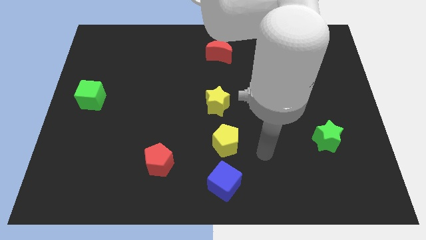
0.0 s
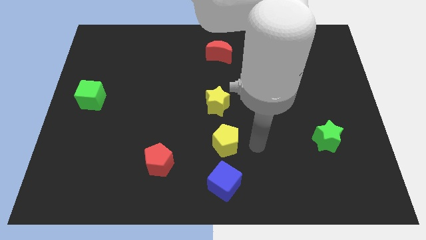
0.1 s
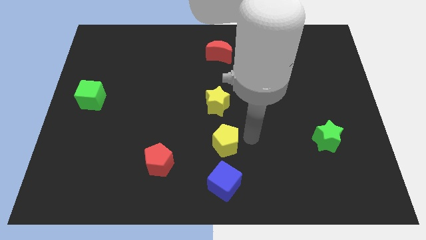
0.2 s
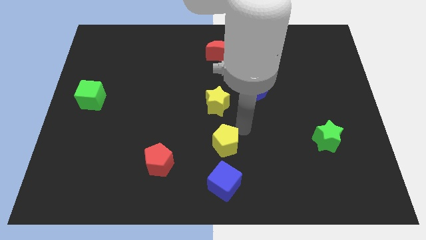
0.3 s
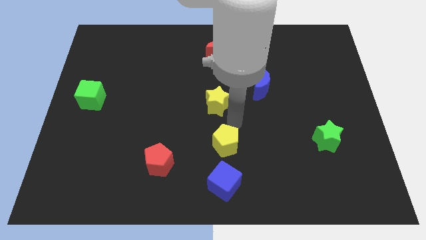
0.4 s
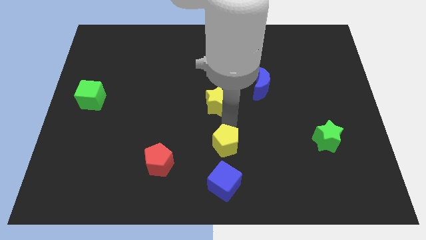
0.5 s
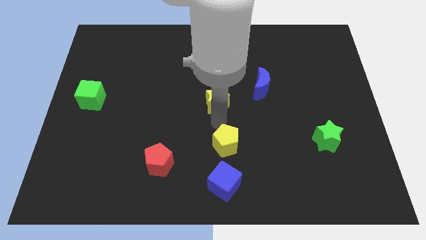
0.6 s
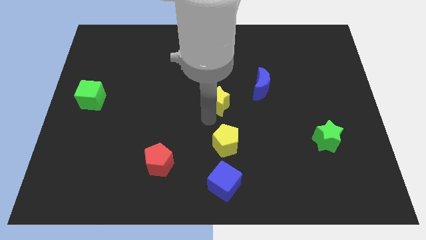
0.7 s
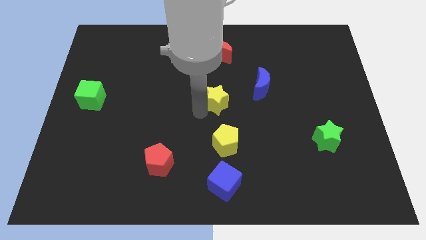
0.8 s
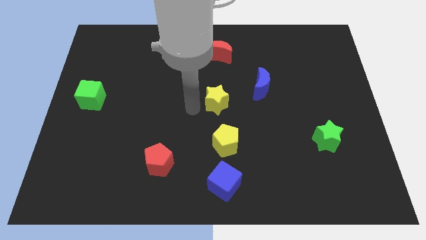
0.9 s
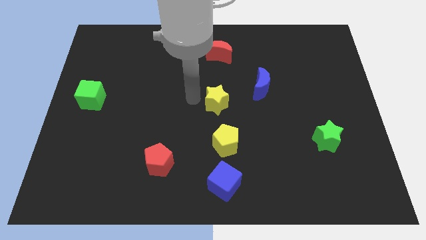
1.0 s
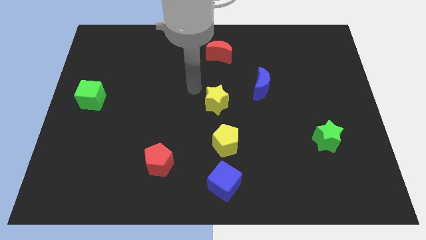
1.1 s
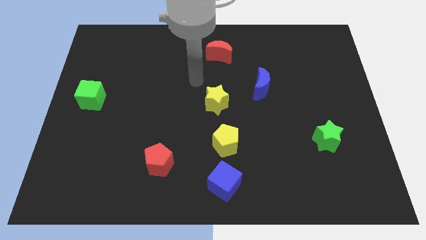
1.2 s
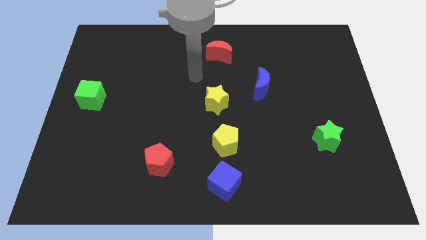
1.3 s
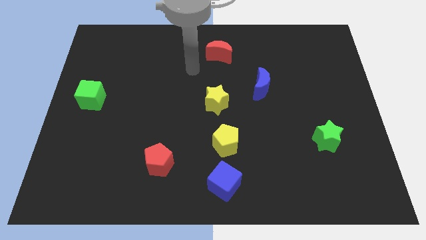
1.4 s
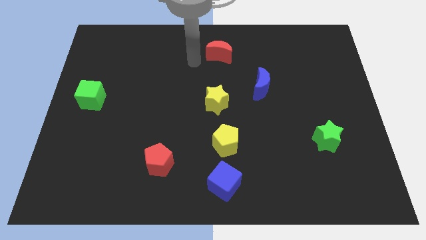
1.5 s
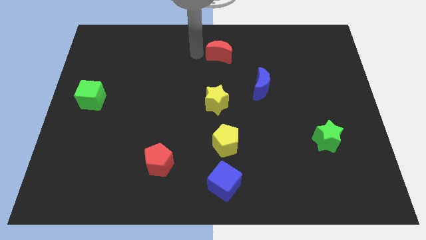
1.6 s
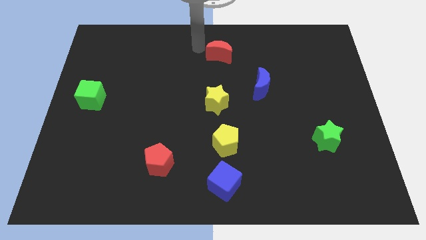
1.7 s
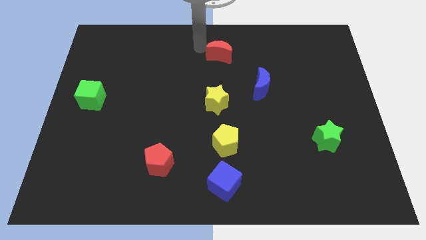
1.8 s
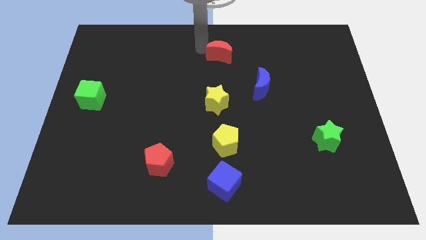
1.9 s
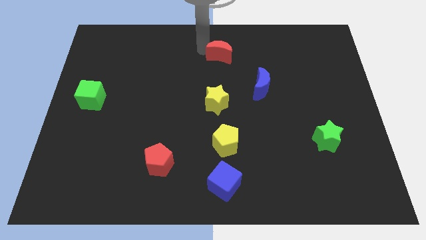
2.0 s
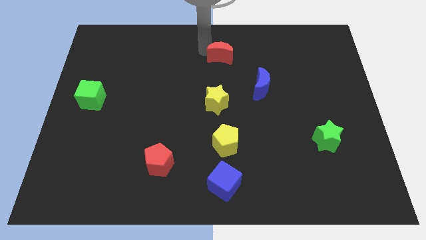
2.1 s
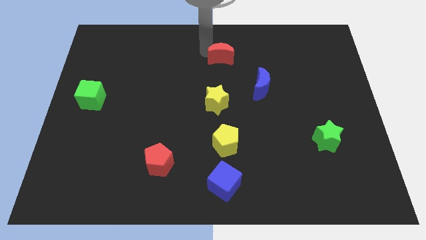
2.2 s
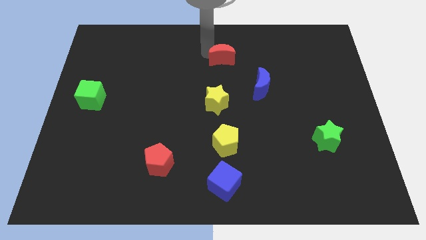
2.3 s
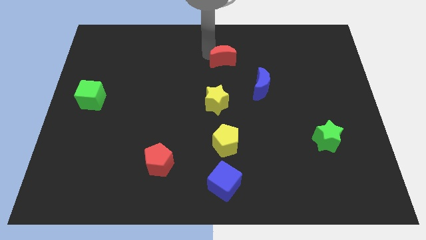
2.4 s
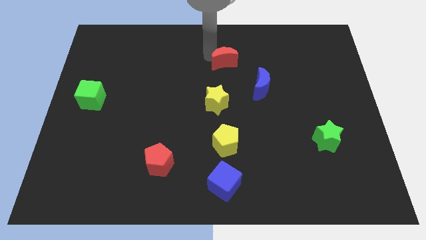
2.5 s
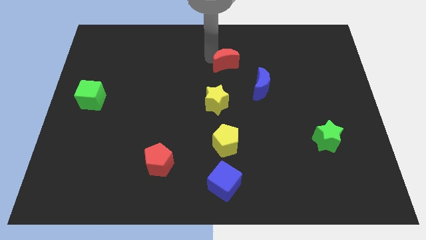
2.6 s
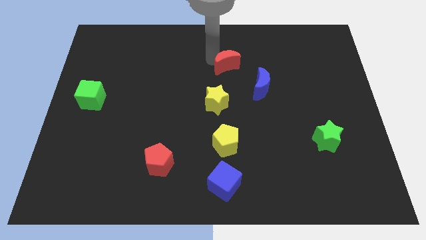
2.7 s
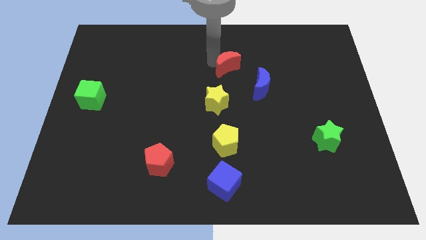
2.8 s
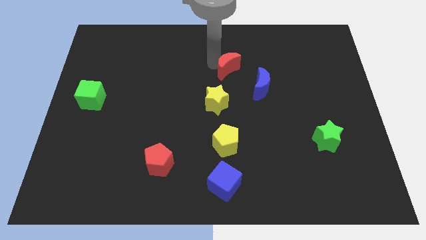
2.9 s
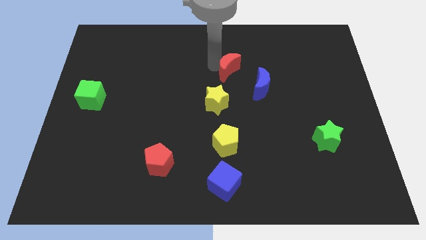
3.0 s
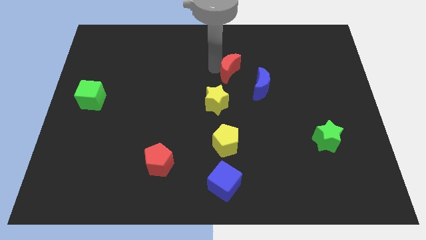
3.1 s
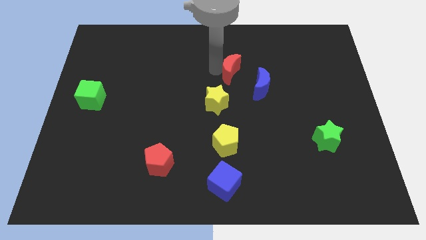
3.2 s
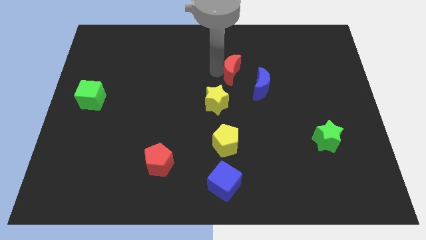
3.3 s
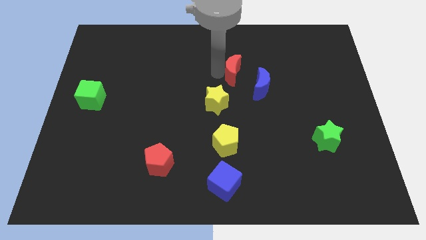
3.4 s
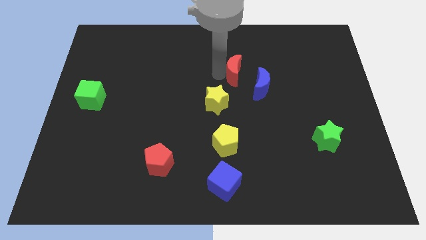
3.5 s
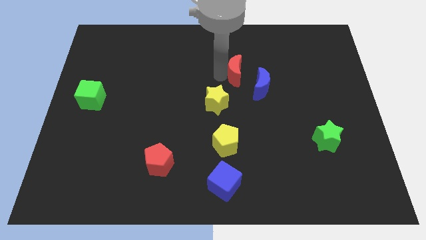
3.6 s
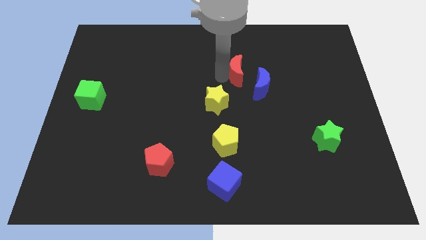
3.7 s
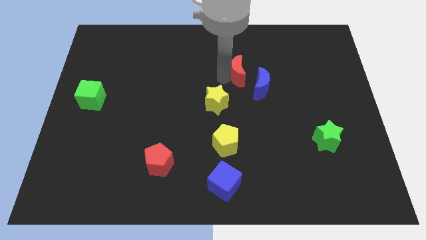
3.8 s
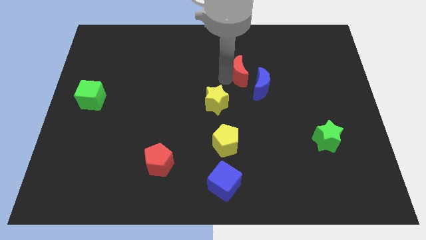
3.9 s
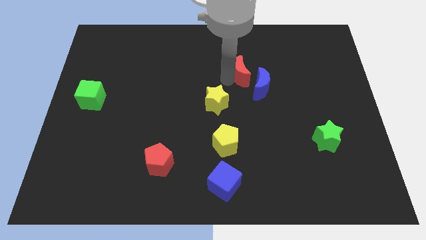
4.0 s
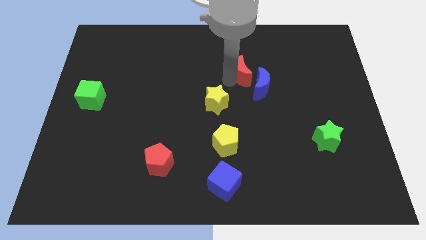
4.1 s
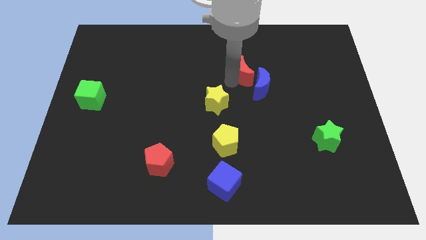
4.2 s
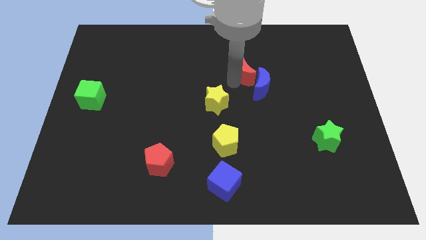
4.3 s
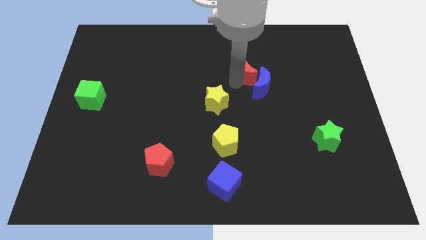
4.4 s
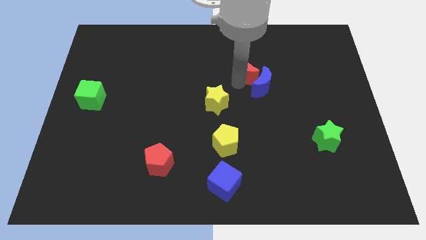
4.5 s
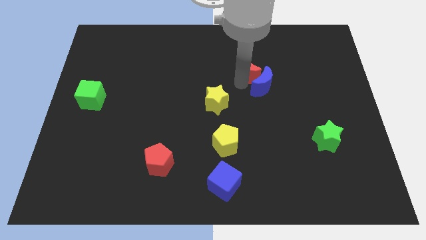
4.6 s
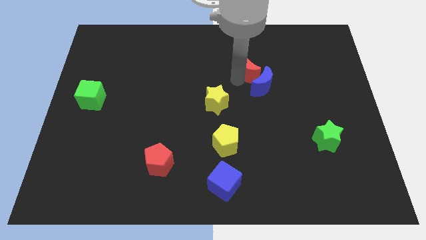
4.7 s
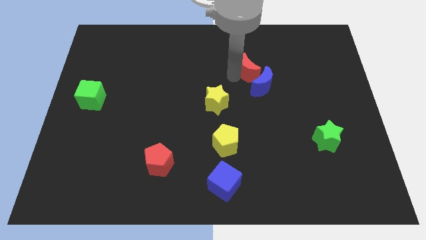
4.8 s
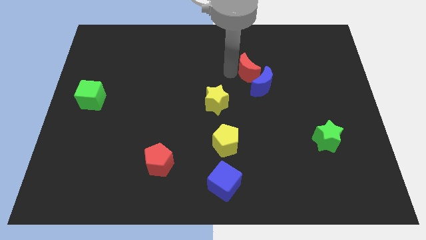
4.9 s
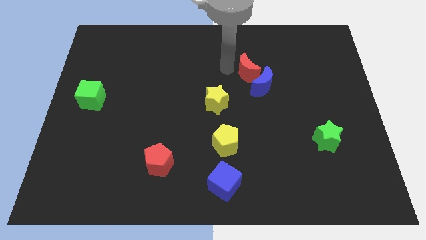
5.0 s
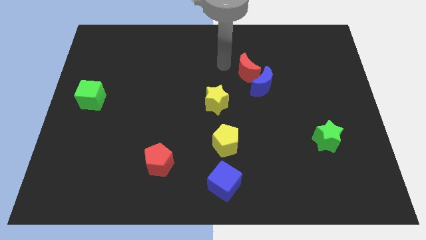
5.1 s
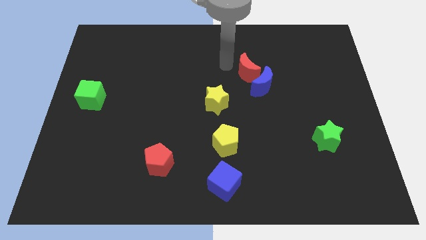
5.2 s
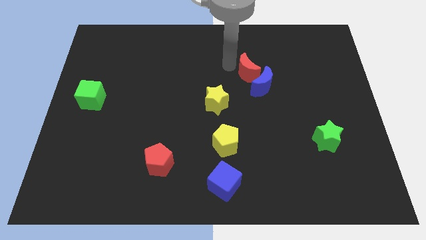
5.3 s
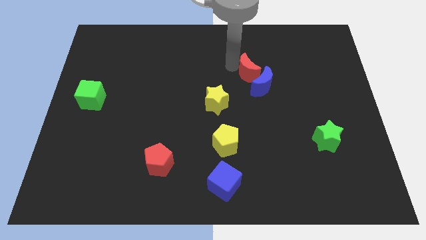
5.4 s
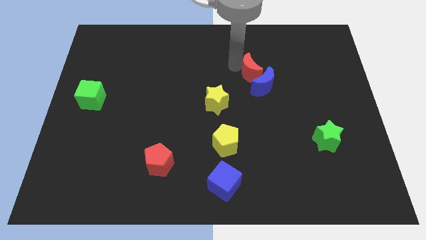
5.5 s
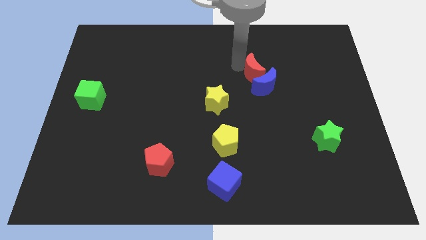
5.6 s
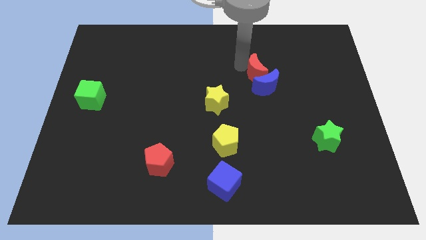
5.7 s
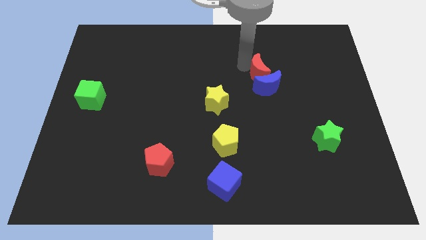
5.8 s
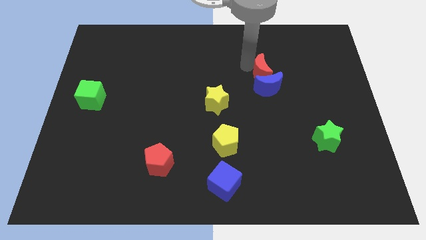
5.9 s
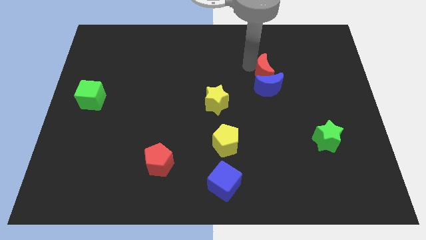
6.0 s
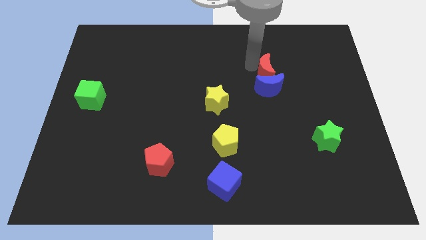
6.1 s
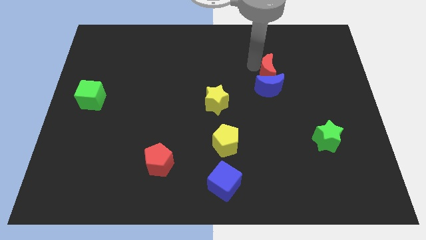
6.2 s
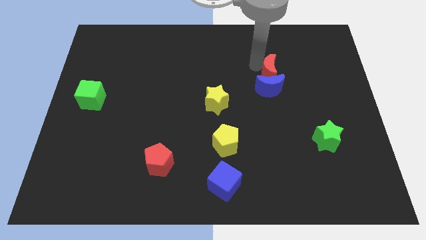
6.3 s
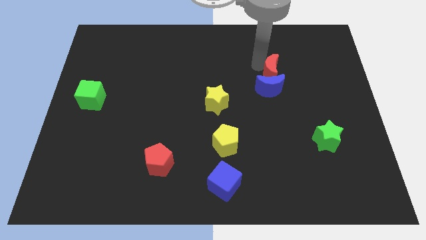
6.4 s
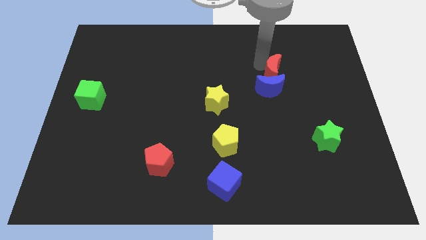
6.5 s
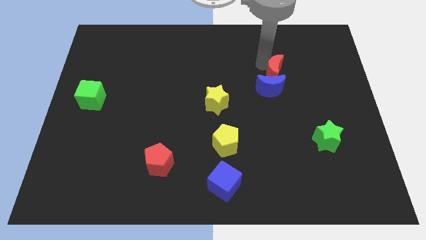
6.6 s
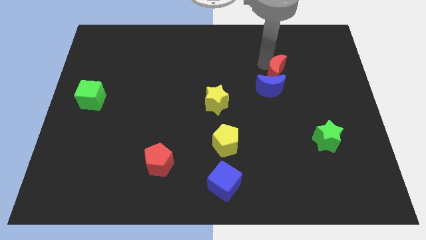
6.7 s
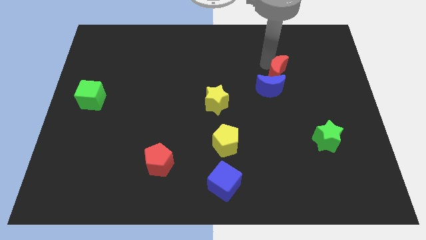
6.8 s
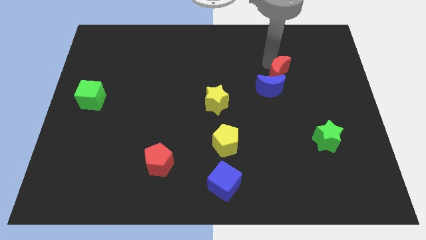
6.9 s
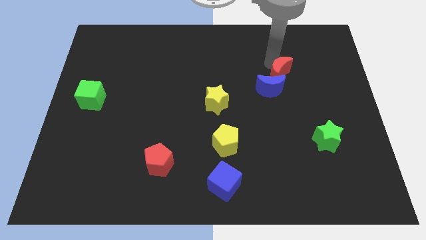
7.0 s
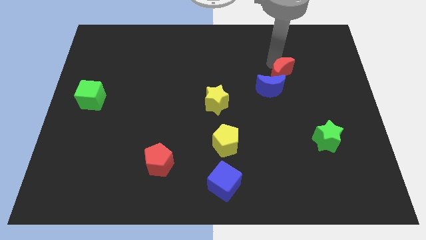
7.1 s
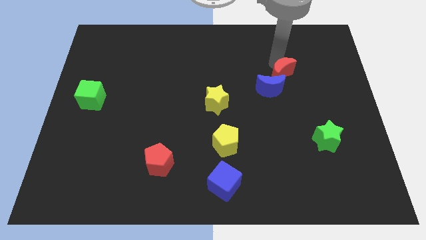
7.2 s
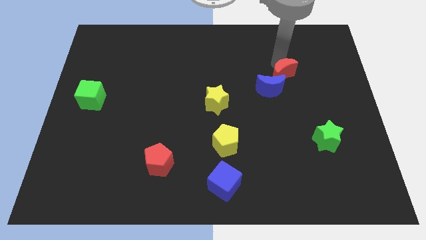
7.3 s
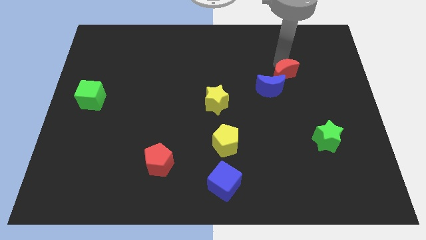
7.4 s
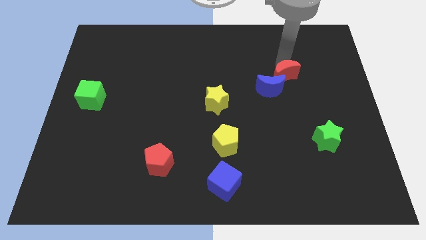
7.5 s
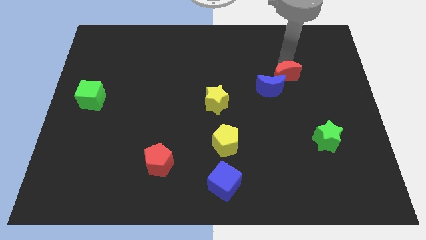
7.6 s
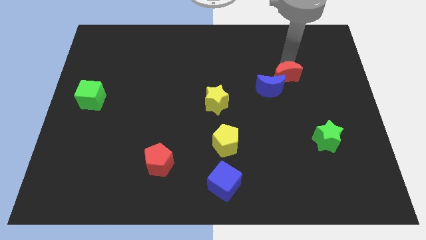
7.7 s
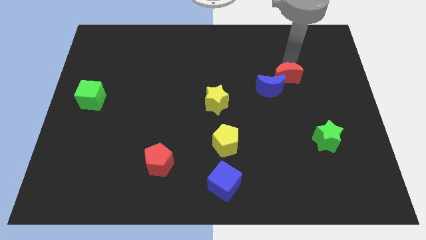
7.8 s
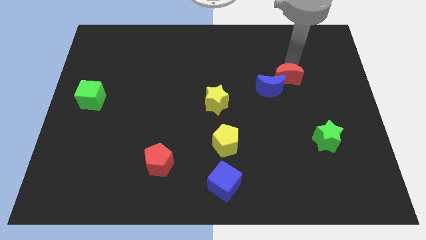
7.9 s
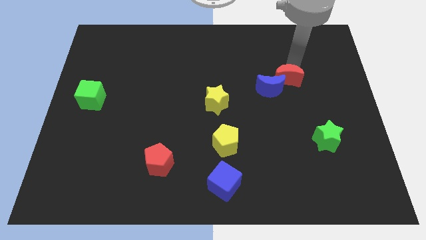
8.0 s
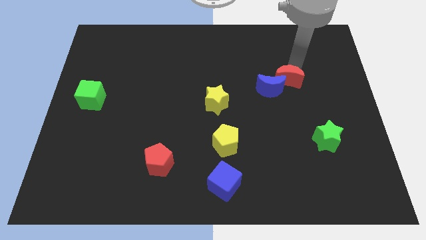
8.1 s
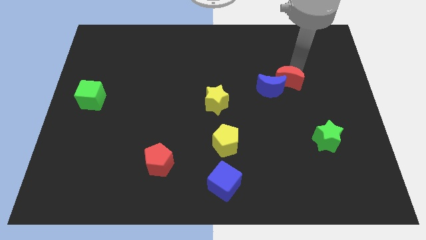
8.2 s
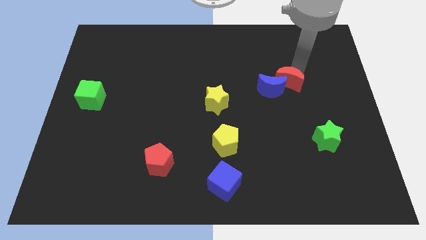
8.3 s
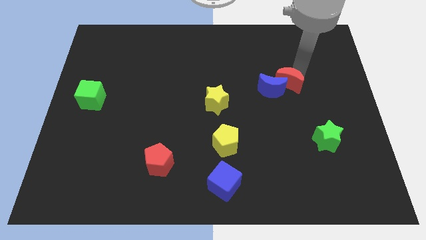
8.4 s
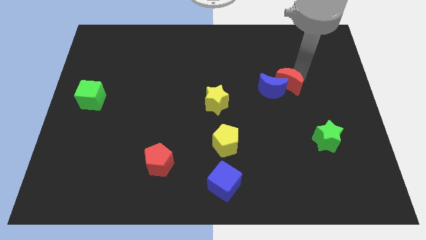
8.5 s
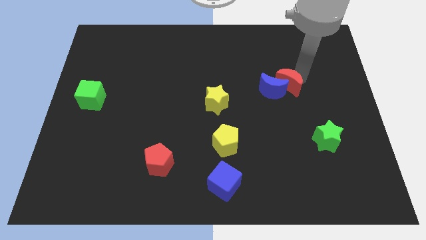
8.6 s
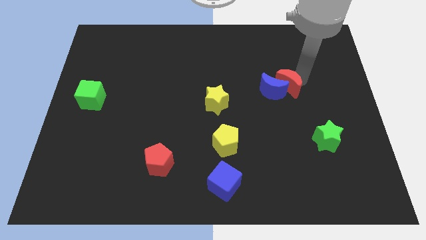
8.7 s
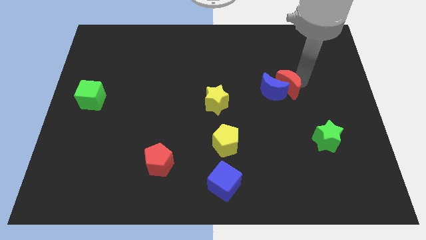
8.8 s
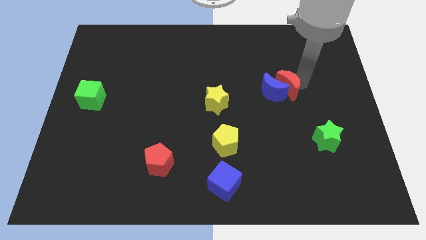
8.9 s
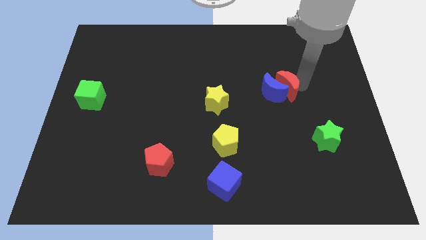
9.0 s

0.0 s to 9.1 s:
move the red moon downwards and then right
